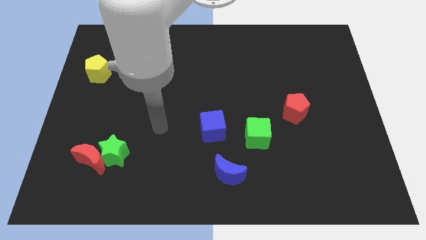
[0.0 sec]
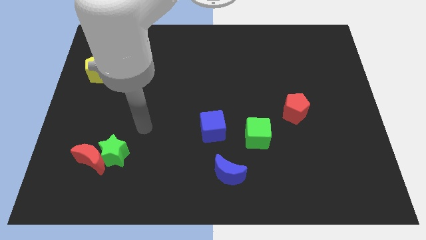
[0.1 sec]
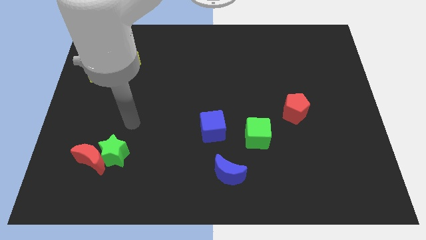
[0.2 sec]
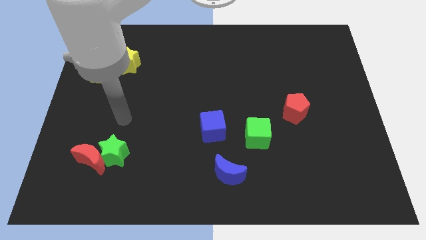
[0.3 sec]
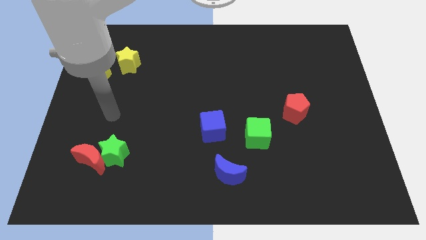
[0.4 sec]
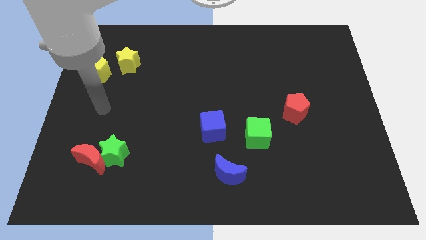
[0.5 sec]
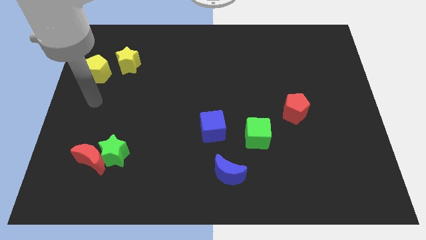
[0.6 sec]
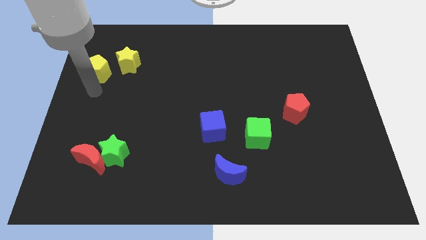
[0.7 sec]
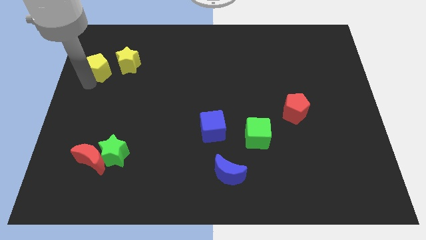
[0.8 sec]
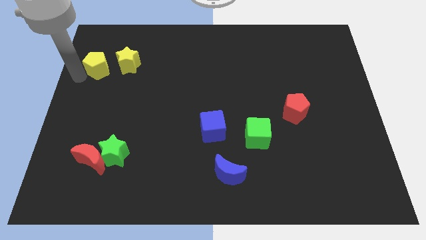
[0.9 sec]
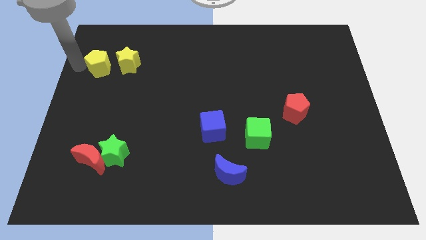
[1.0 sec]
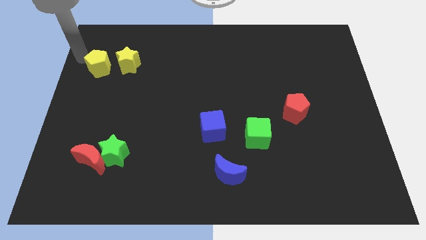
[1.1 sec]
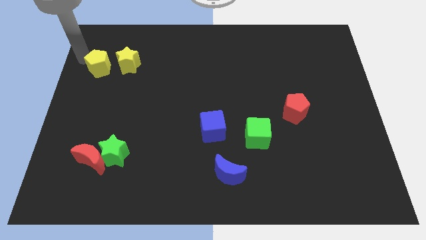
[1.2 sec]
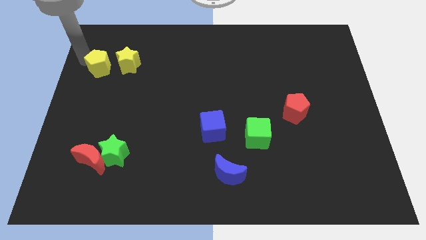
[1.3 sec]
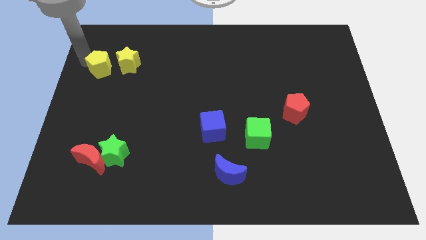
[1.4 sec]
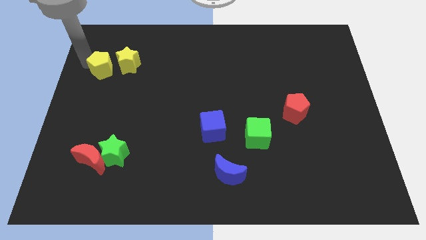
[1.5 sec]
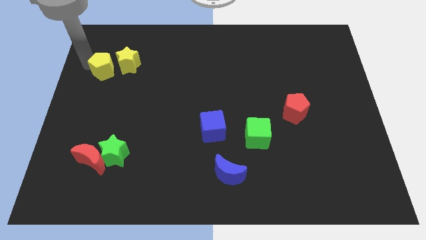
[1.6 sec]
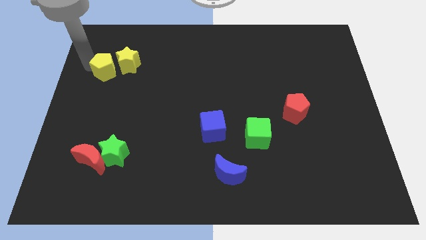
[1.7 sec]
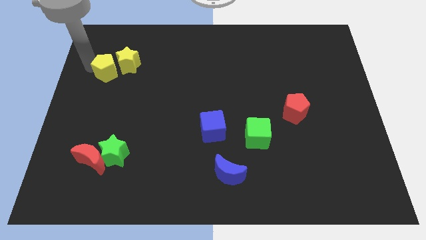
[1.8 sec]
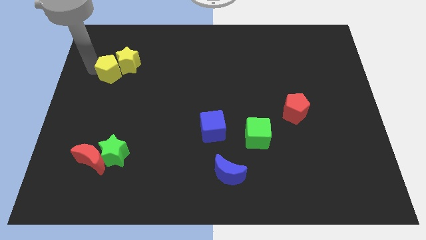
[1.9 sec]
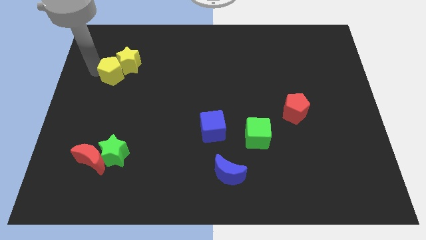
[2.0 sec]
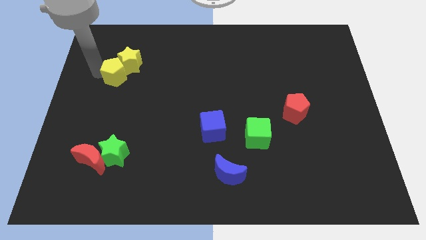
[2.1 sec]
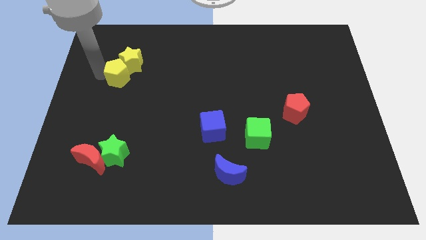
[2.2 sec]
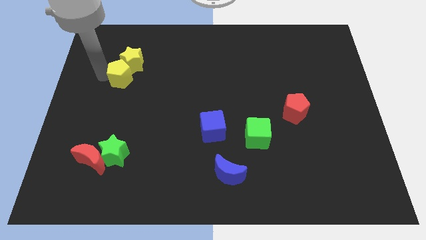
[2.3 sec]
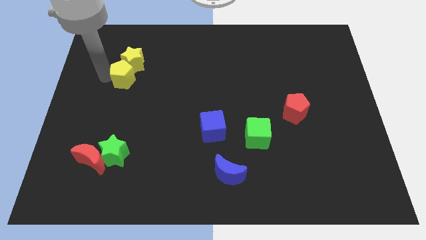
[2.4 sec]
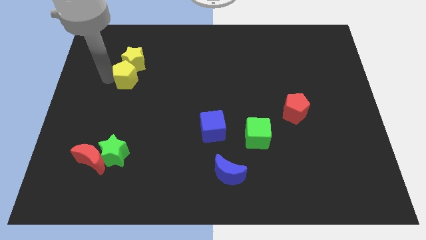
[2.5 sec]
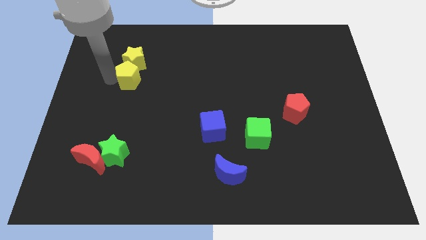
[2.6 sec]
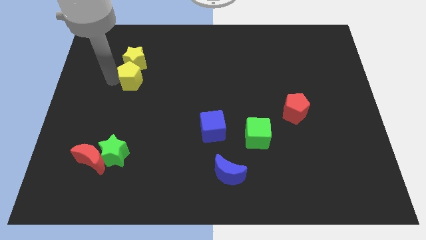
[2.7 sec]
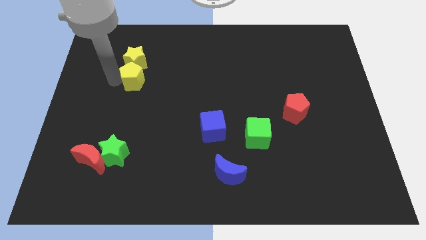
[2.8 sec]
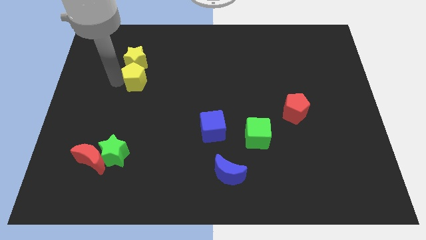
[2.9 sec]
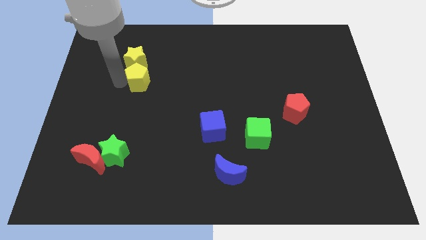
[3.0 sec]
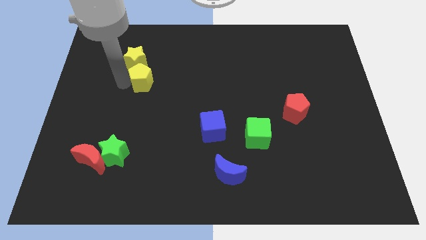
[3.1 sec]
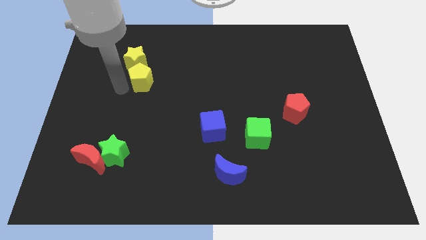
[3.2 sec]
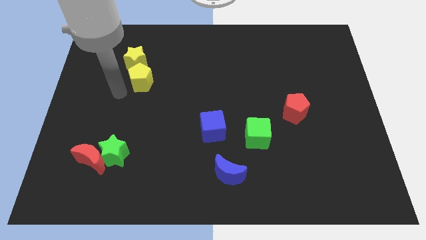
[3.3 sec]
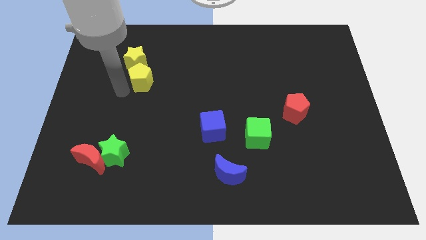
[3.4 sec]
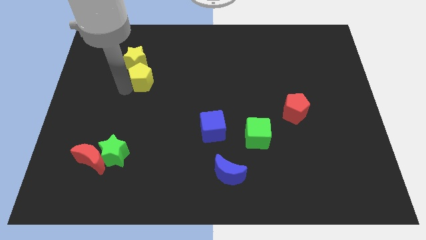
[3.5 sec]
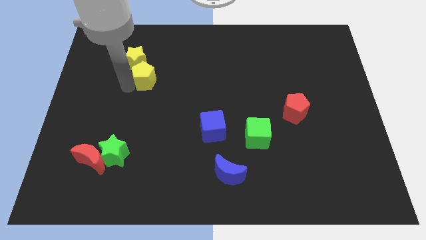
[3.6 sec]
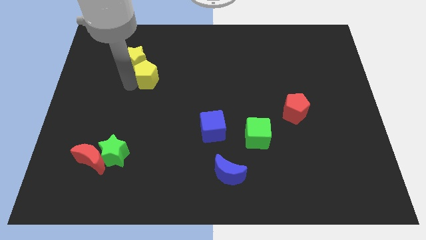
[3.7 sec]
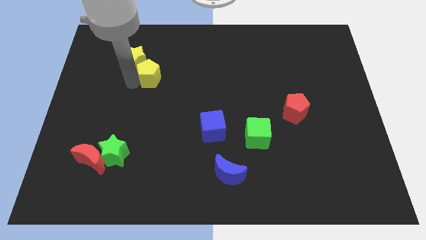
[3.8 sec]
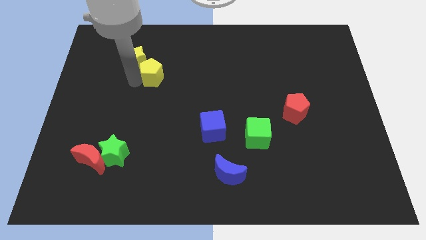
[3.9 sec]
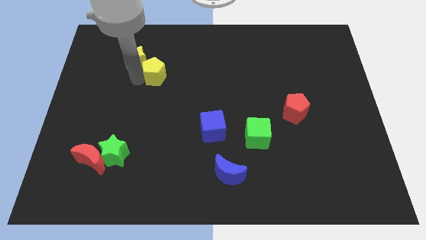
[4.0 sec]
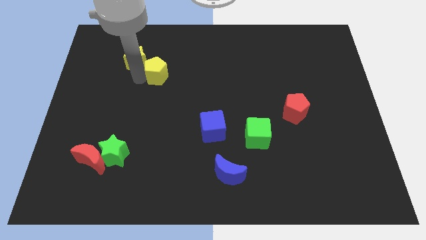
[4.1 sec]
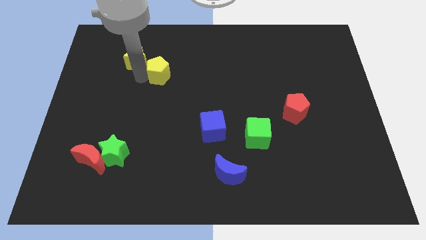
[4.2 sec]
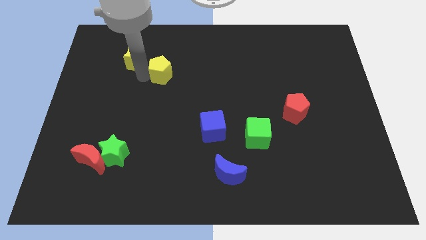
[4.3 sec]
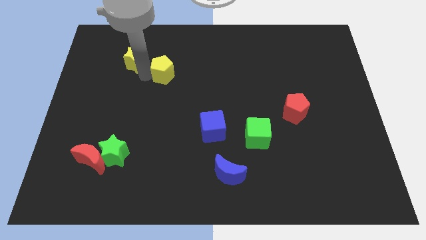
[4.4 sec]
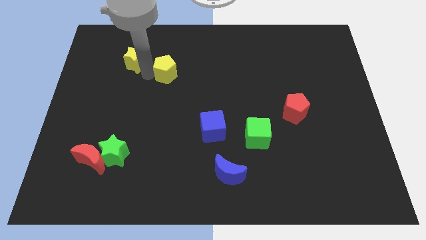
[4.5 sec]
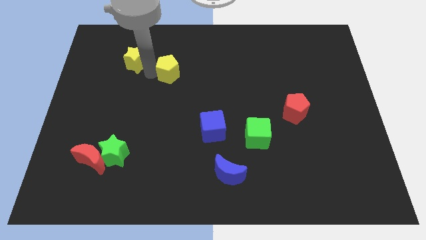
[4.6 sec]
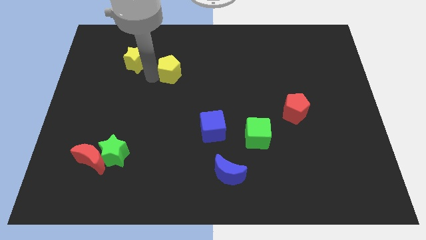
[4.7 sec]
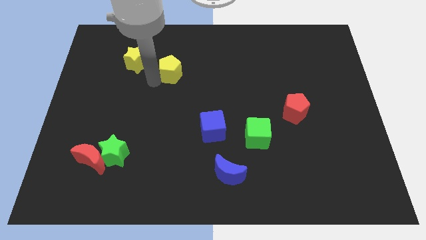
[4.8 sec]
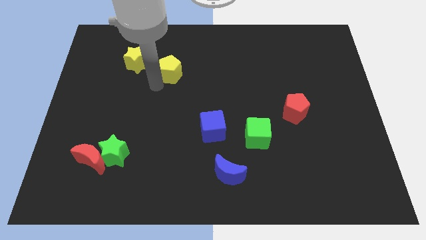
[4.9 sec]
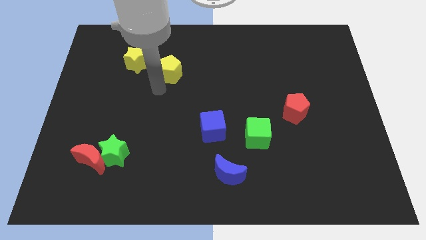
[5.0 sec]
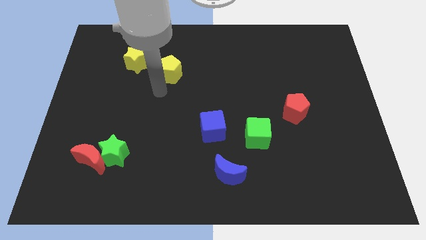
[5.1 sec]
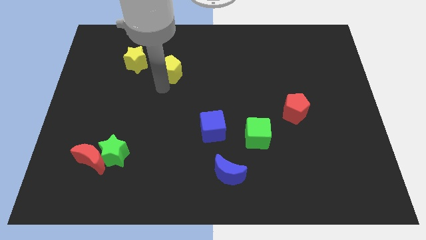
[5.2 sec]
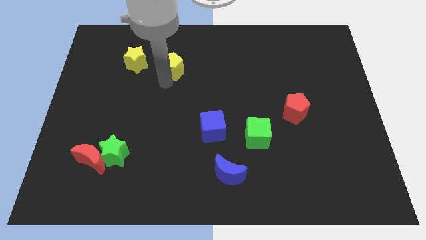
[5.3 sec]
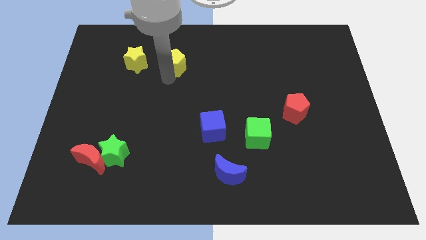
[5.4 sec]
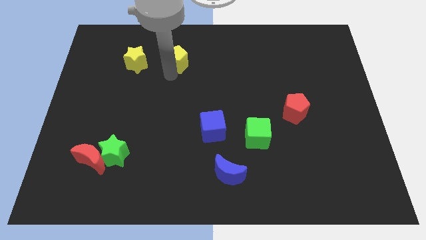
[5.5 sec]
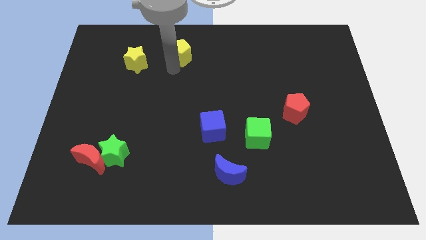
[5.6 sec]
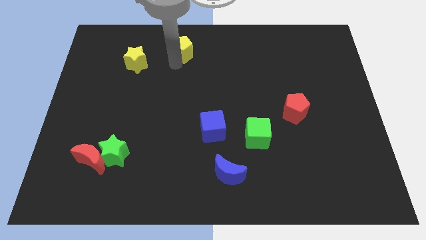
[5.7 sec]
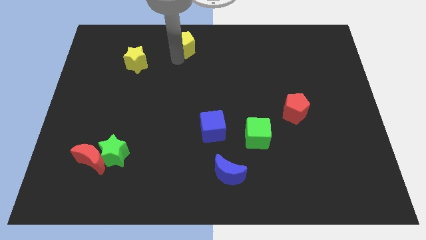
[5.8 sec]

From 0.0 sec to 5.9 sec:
move the yellow pentagon to the towards your base

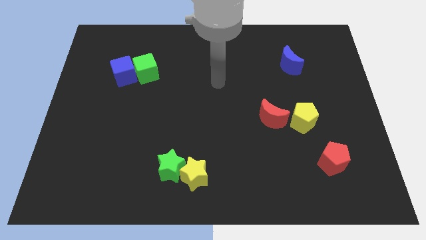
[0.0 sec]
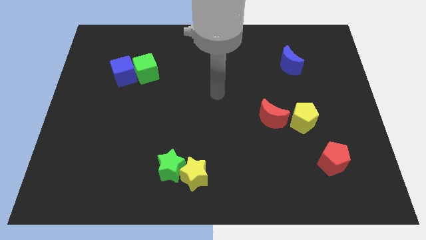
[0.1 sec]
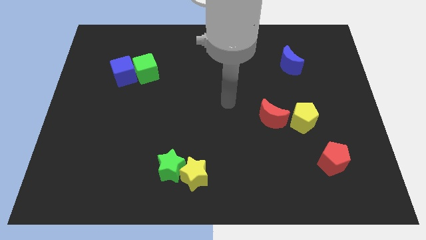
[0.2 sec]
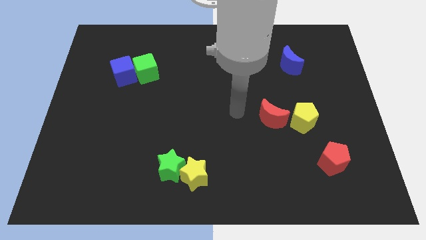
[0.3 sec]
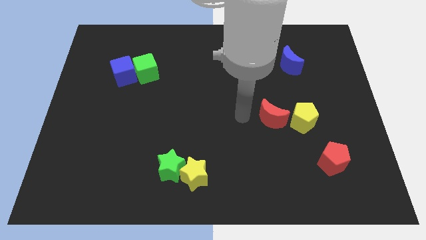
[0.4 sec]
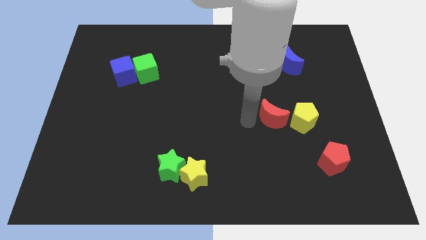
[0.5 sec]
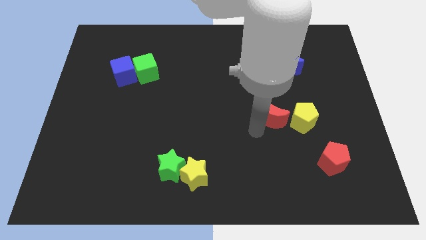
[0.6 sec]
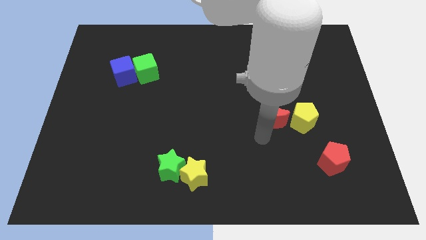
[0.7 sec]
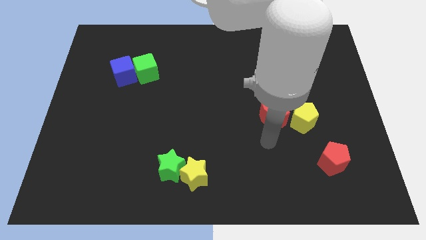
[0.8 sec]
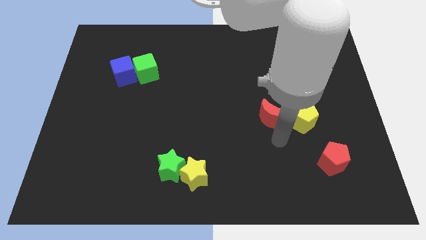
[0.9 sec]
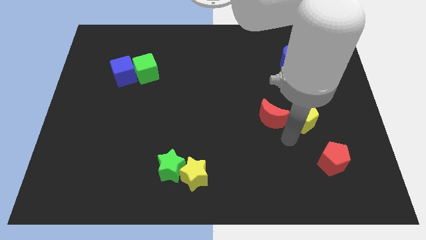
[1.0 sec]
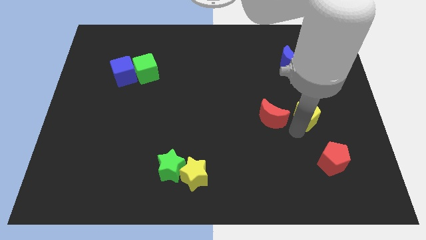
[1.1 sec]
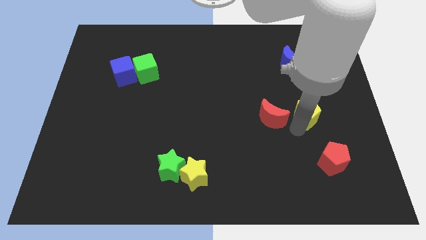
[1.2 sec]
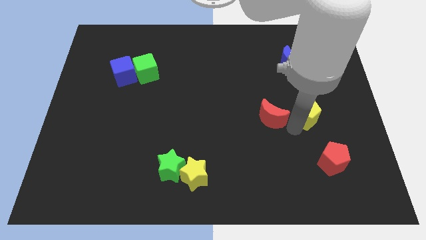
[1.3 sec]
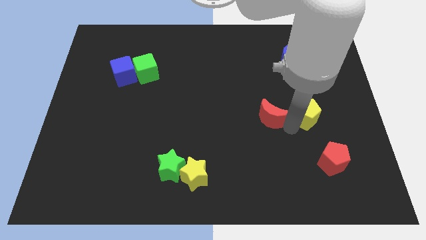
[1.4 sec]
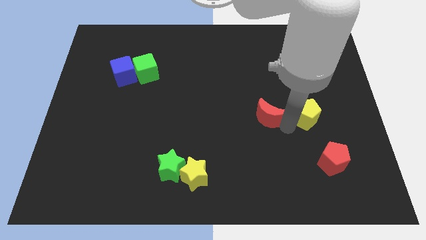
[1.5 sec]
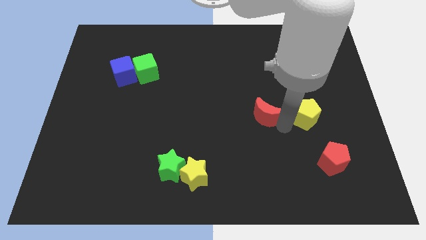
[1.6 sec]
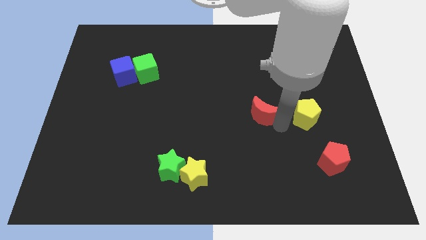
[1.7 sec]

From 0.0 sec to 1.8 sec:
push the red moon to the middle of the board
